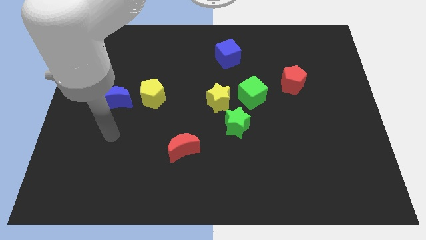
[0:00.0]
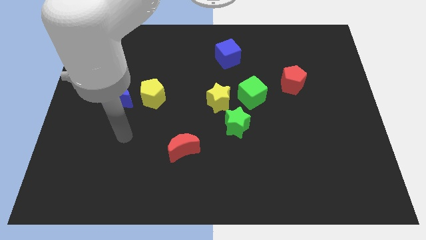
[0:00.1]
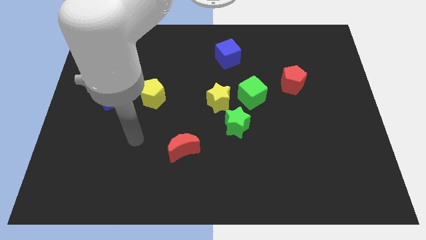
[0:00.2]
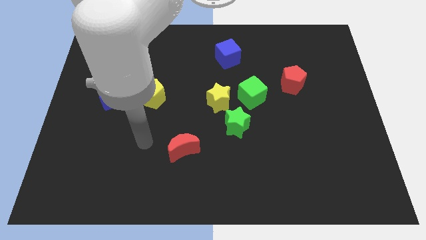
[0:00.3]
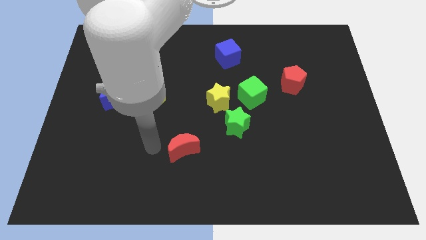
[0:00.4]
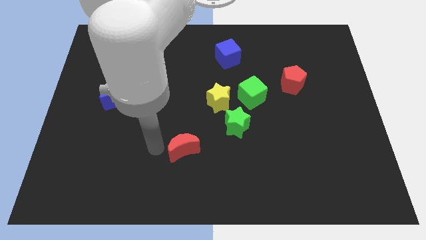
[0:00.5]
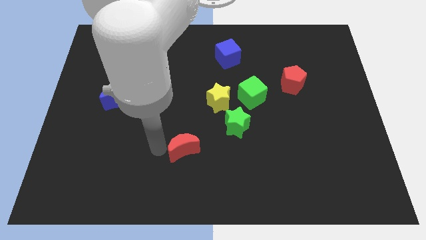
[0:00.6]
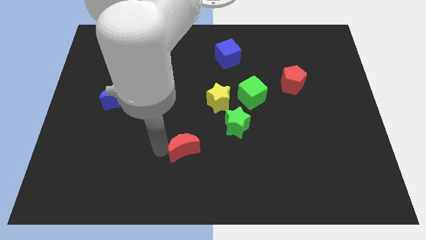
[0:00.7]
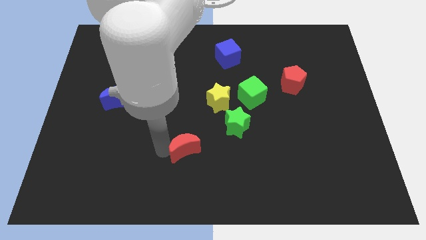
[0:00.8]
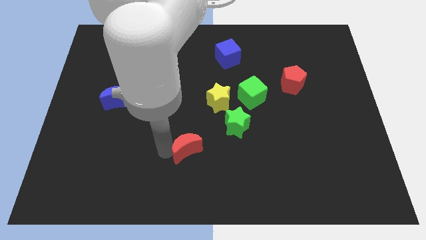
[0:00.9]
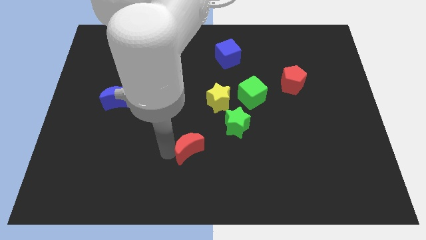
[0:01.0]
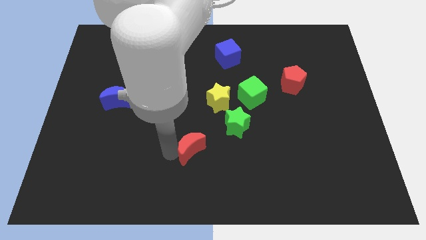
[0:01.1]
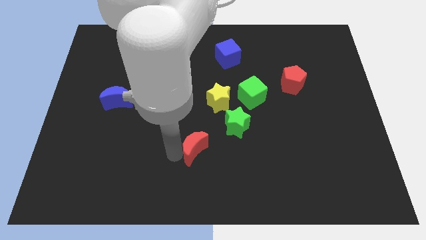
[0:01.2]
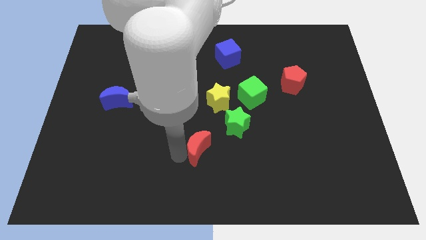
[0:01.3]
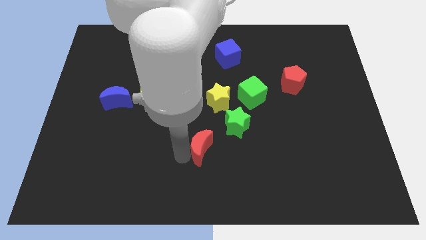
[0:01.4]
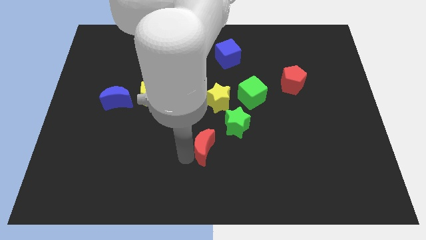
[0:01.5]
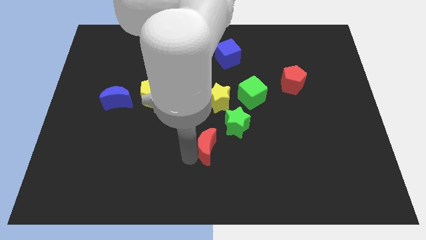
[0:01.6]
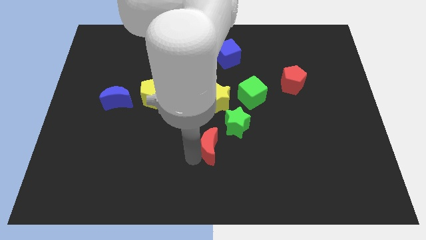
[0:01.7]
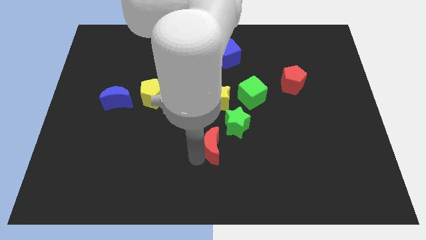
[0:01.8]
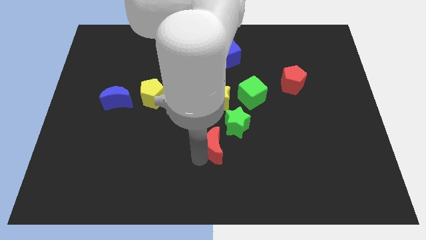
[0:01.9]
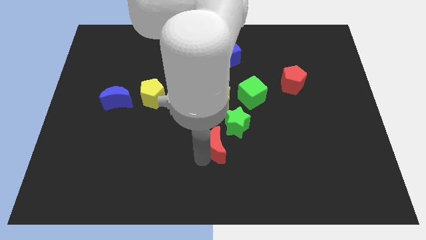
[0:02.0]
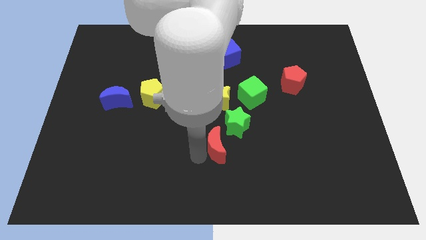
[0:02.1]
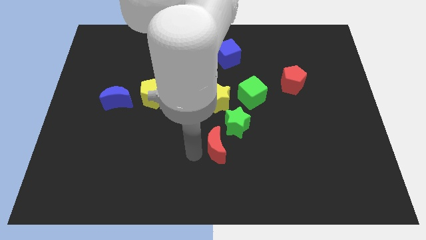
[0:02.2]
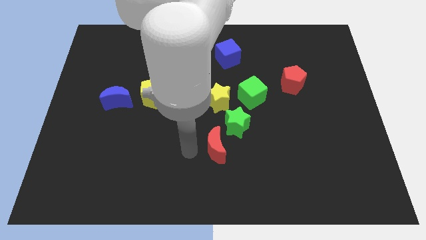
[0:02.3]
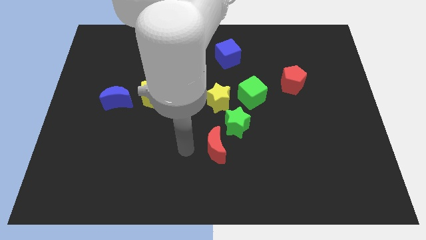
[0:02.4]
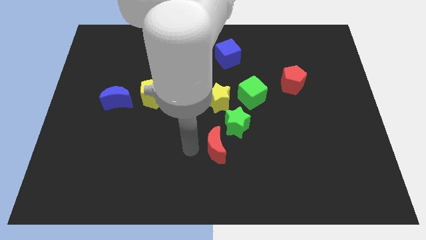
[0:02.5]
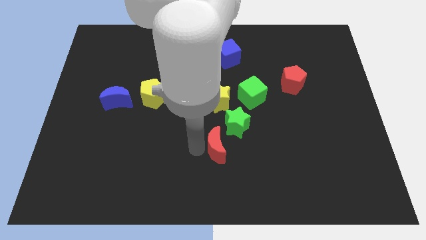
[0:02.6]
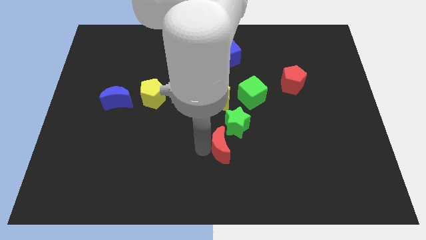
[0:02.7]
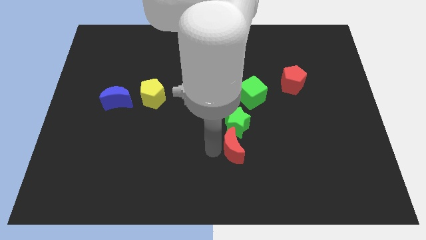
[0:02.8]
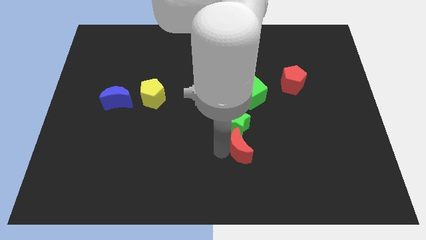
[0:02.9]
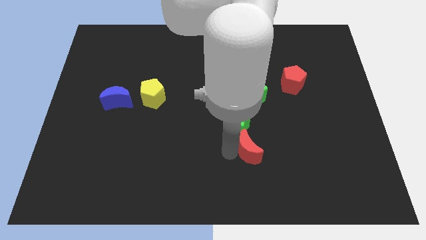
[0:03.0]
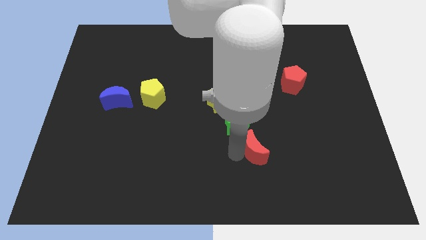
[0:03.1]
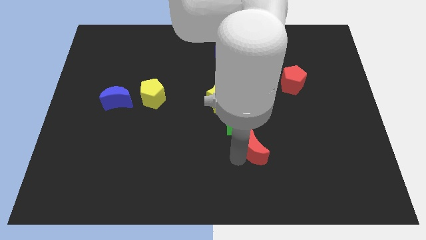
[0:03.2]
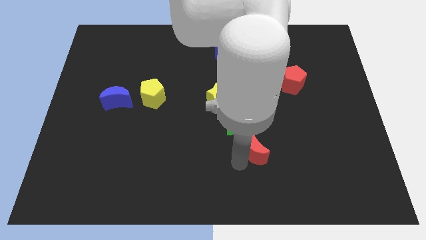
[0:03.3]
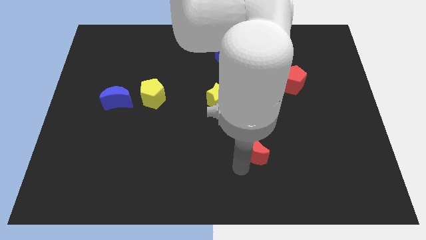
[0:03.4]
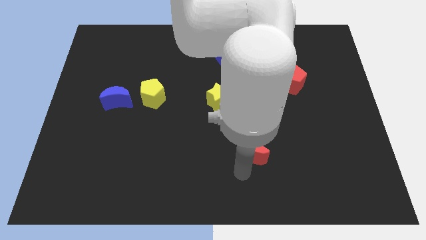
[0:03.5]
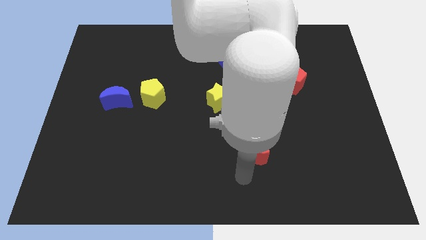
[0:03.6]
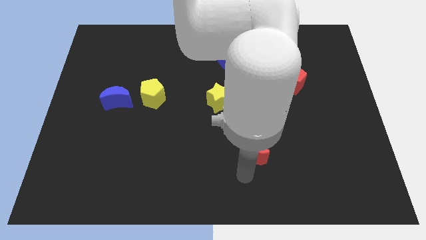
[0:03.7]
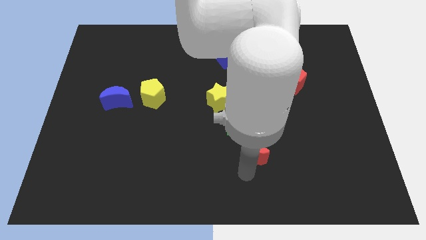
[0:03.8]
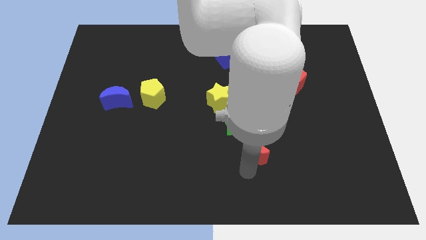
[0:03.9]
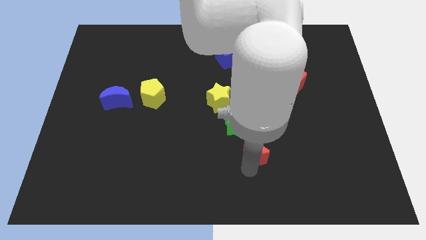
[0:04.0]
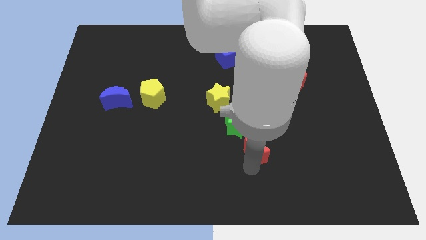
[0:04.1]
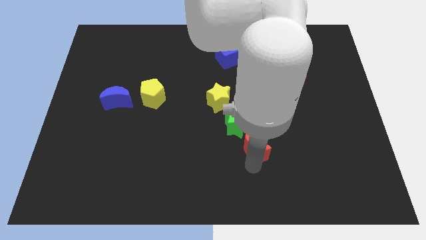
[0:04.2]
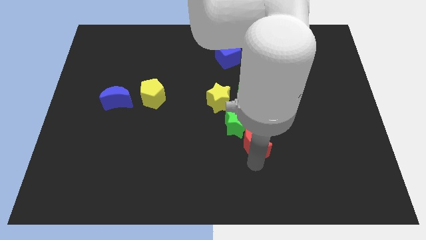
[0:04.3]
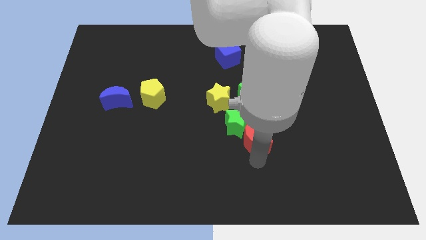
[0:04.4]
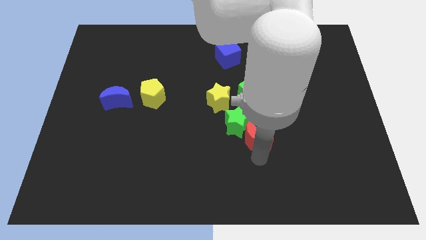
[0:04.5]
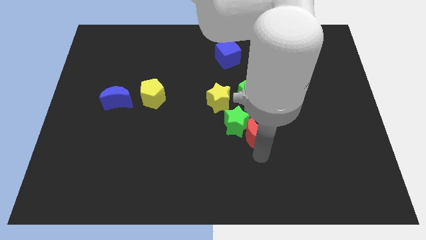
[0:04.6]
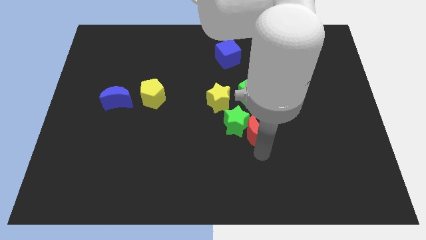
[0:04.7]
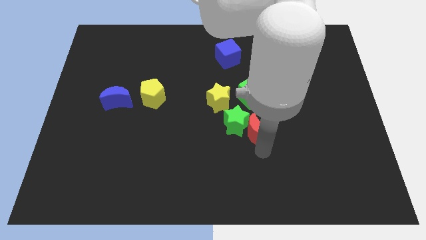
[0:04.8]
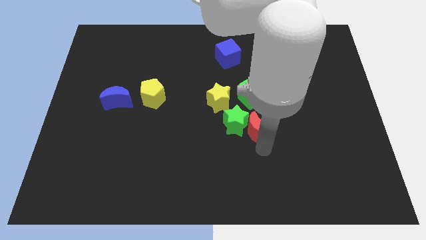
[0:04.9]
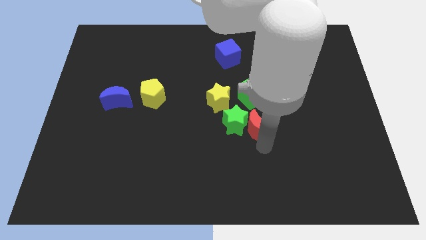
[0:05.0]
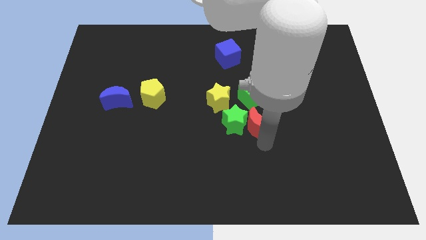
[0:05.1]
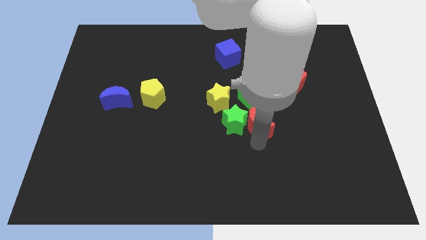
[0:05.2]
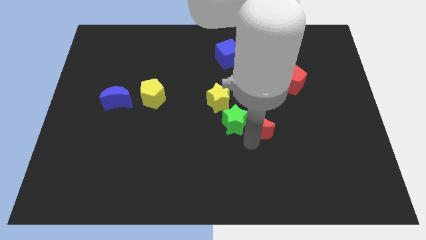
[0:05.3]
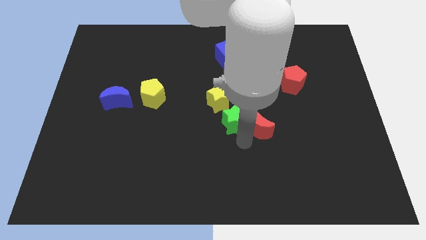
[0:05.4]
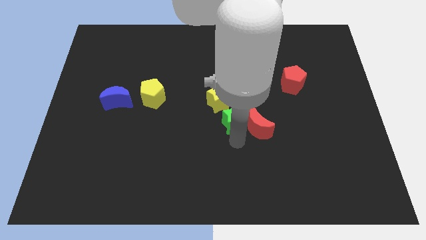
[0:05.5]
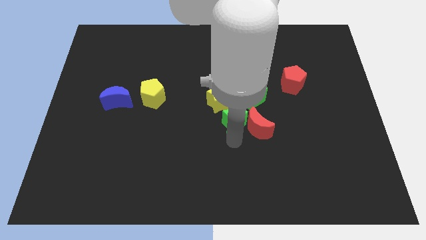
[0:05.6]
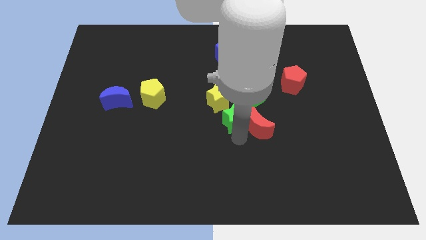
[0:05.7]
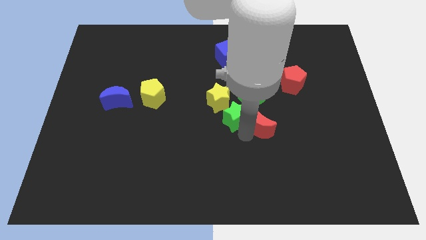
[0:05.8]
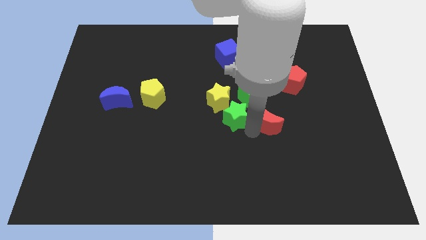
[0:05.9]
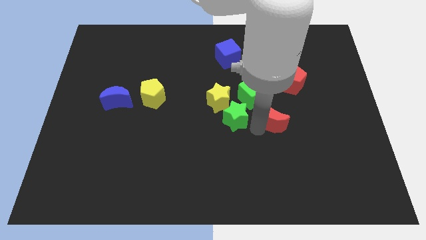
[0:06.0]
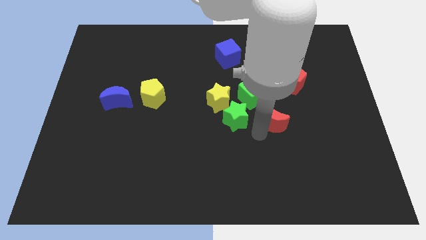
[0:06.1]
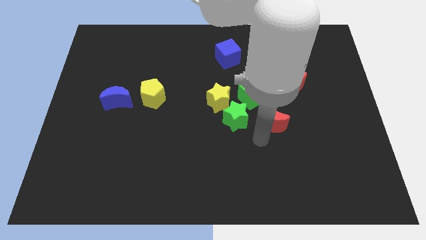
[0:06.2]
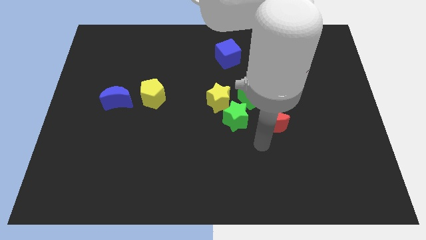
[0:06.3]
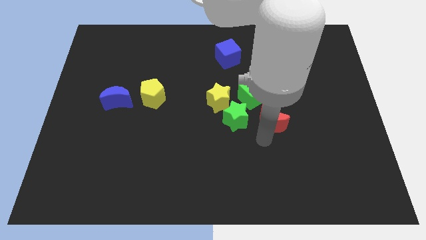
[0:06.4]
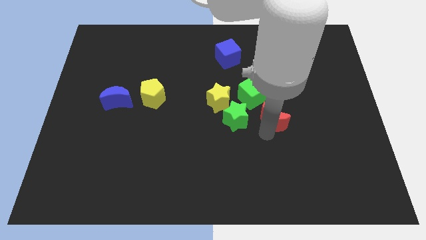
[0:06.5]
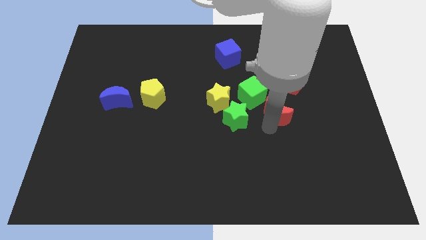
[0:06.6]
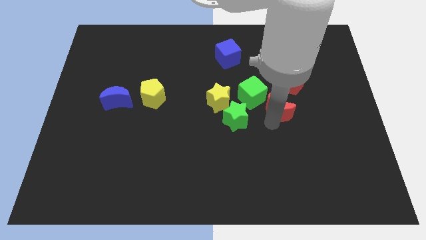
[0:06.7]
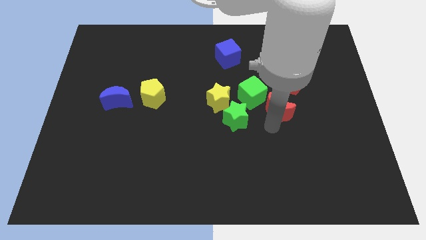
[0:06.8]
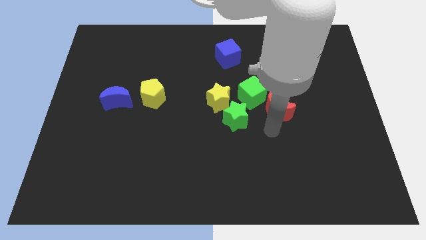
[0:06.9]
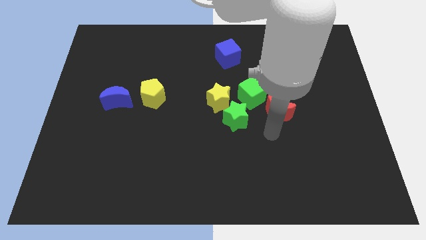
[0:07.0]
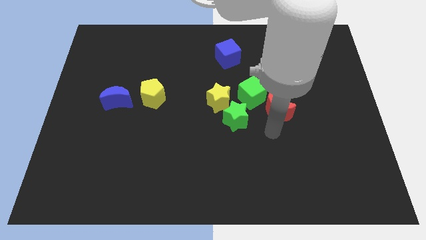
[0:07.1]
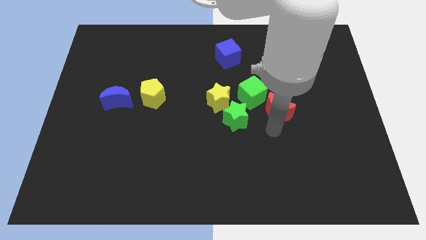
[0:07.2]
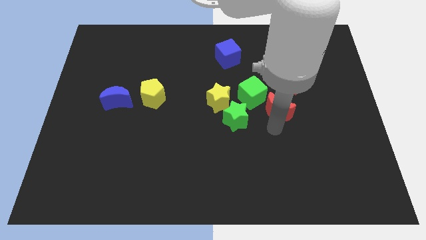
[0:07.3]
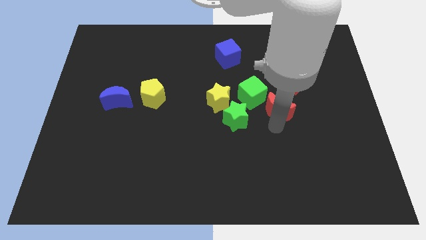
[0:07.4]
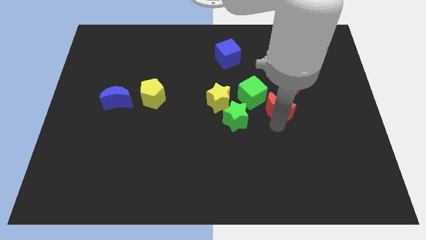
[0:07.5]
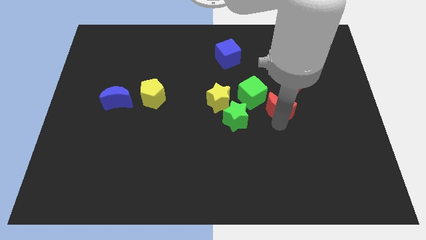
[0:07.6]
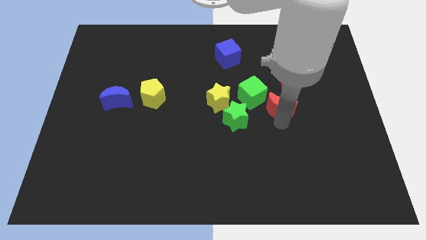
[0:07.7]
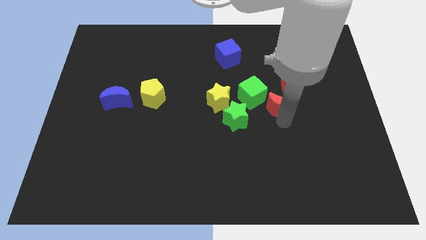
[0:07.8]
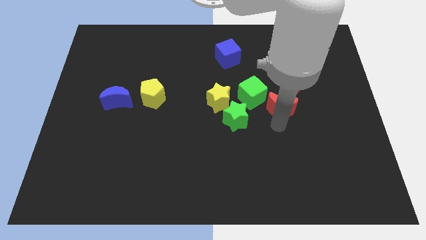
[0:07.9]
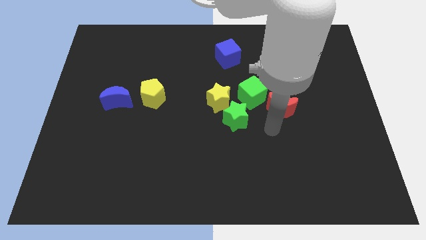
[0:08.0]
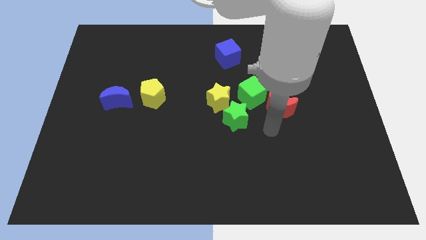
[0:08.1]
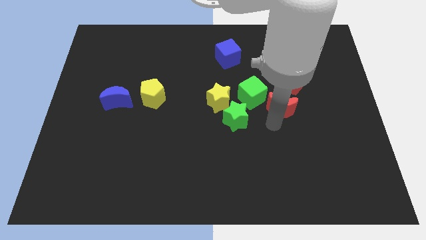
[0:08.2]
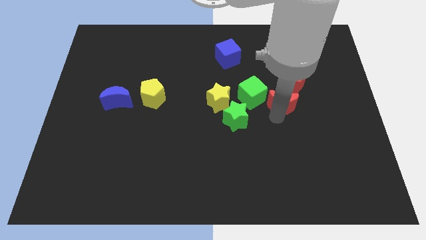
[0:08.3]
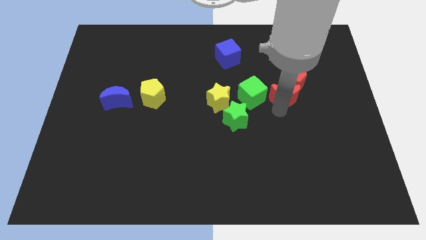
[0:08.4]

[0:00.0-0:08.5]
move the red moon towards the red pentagon
